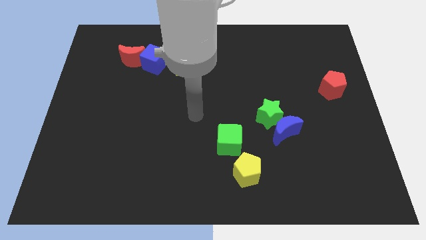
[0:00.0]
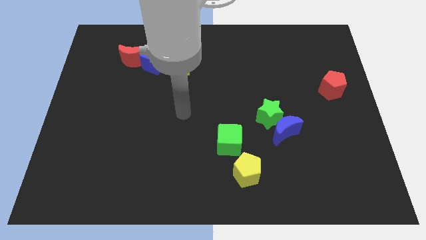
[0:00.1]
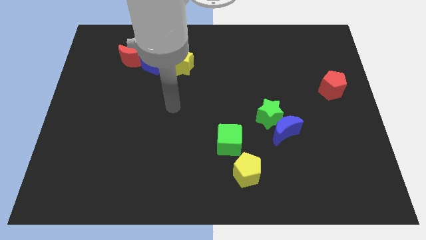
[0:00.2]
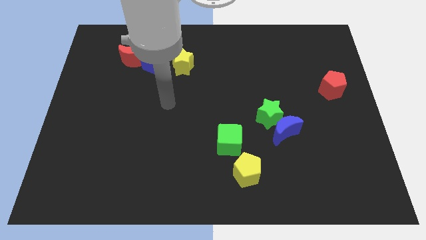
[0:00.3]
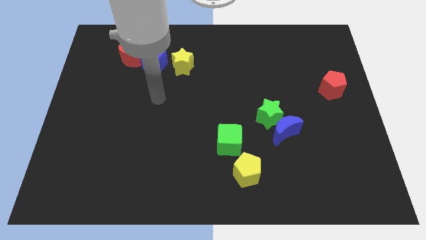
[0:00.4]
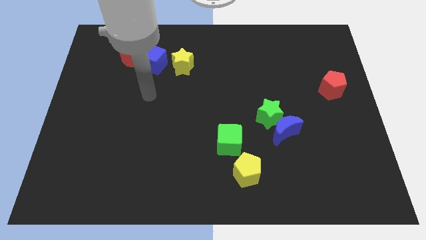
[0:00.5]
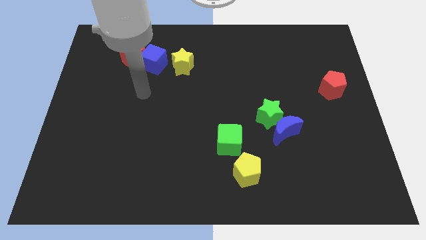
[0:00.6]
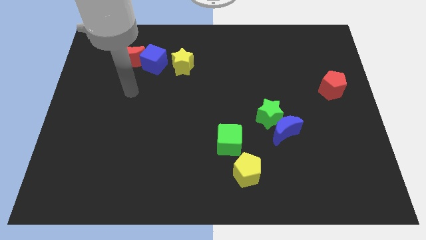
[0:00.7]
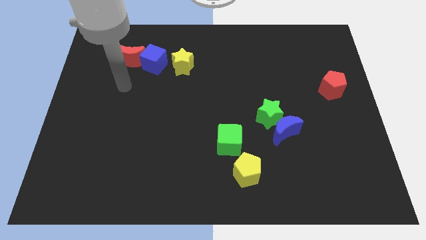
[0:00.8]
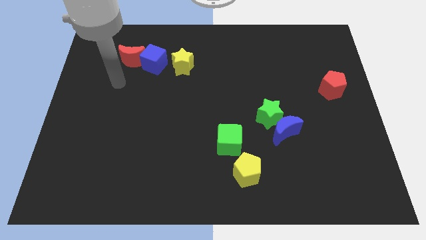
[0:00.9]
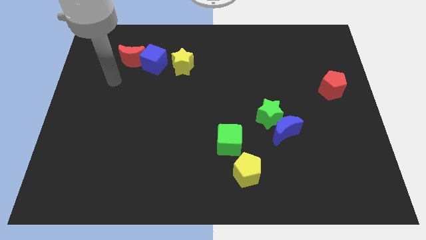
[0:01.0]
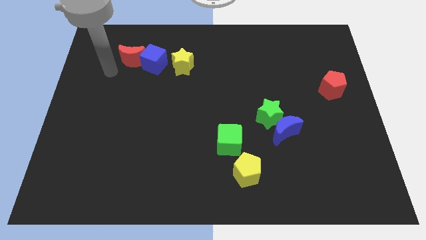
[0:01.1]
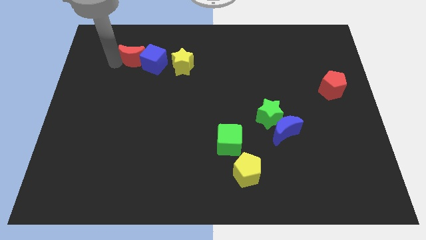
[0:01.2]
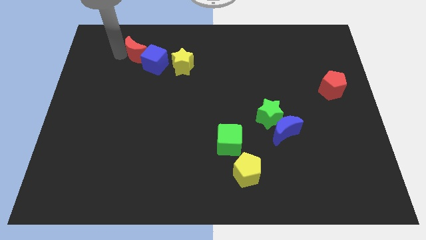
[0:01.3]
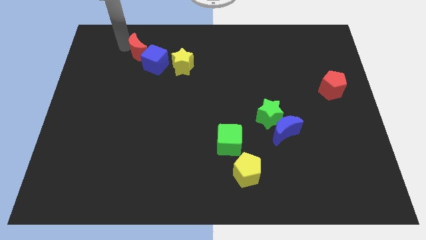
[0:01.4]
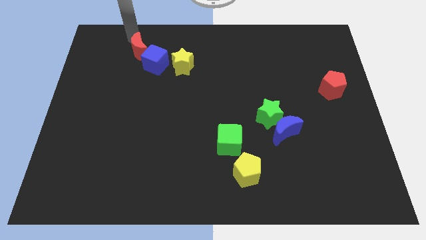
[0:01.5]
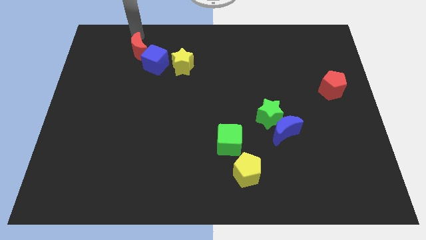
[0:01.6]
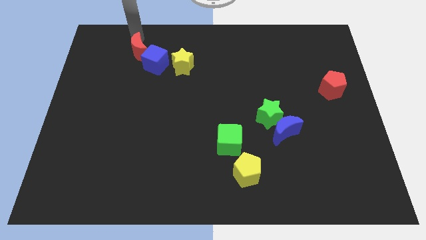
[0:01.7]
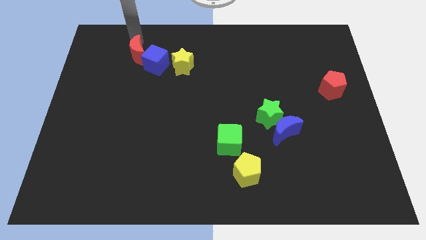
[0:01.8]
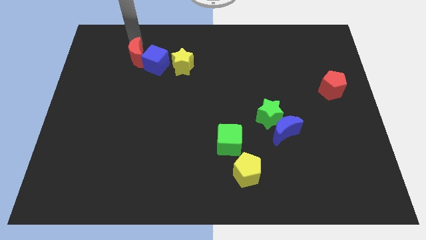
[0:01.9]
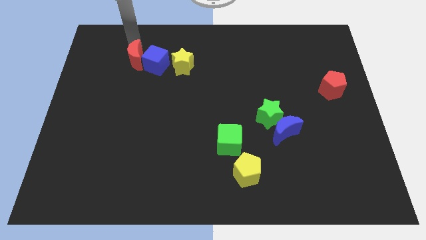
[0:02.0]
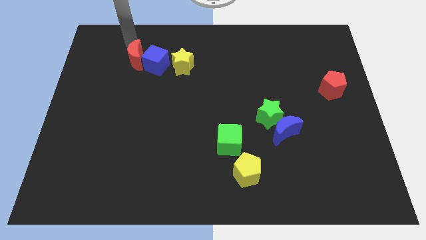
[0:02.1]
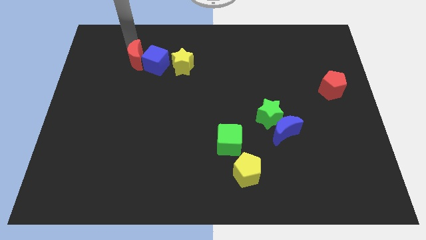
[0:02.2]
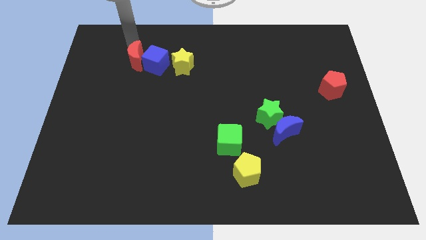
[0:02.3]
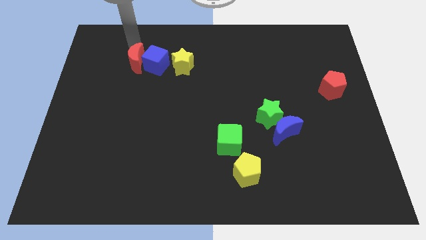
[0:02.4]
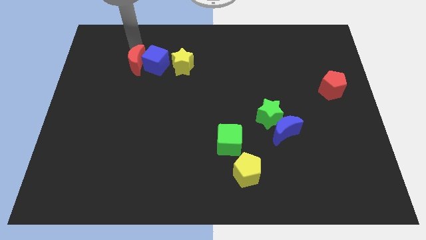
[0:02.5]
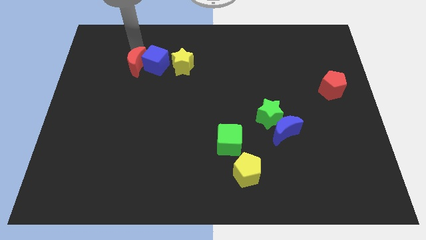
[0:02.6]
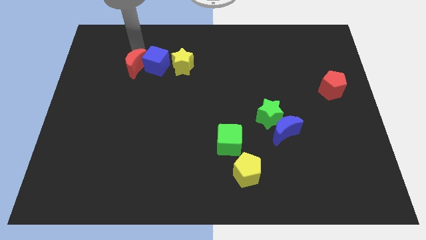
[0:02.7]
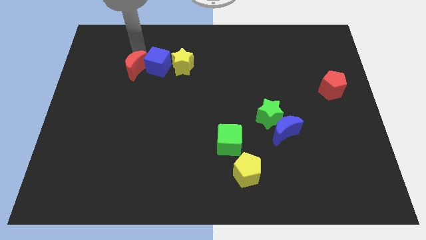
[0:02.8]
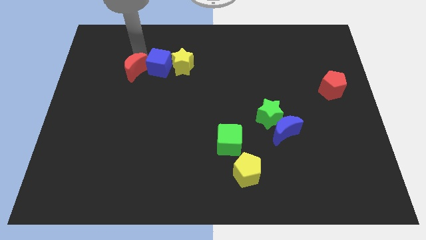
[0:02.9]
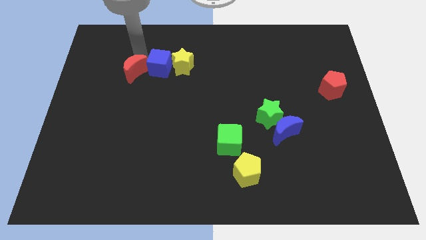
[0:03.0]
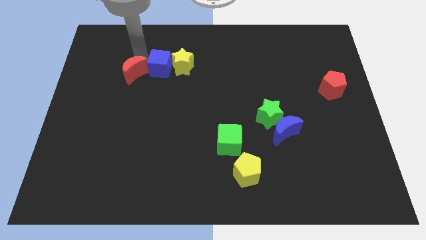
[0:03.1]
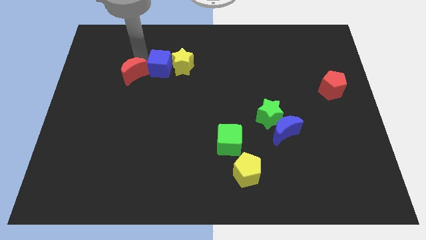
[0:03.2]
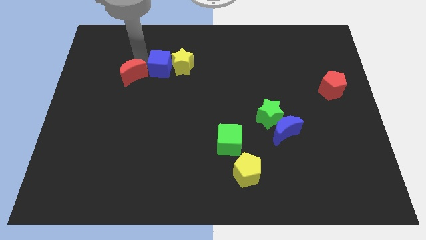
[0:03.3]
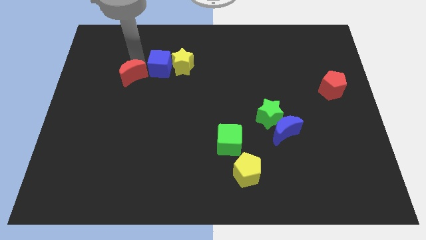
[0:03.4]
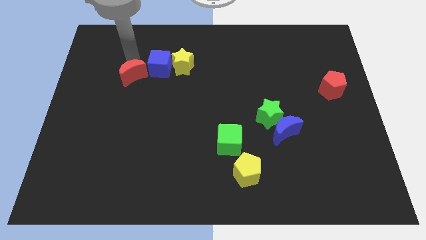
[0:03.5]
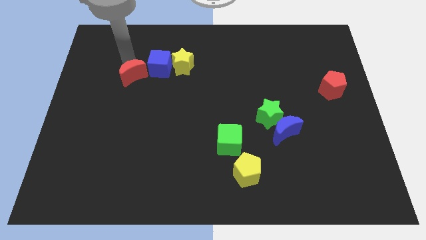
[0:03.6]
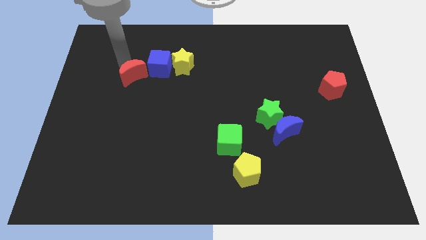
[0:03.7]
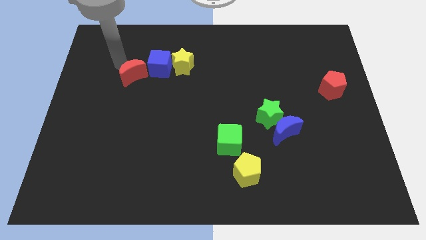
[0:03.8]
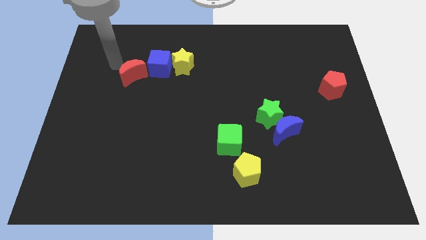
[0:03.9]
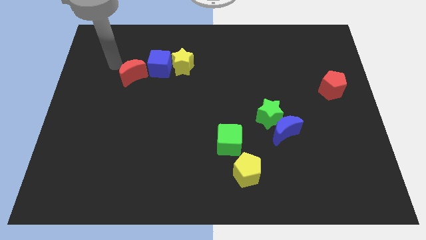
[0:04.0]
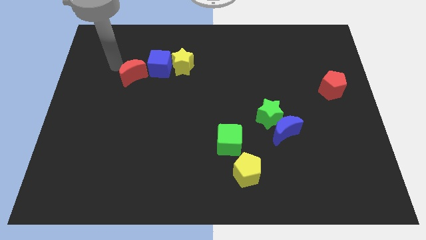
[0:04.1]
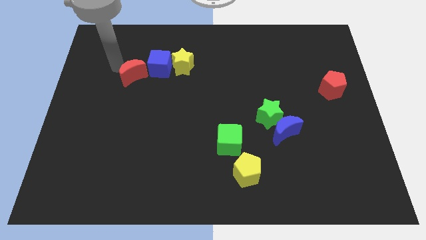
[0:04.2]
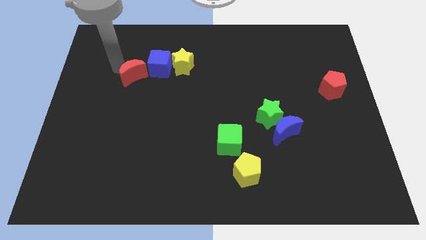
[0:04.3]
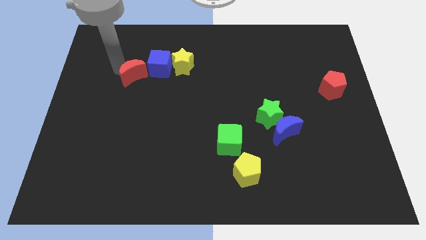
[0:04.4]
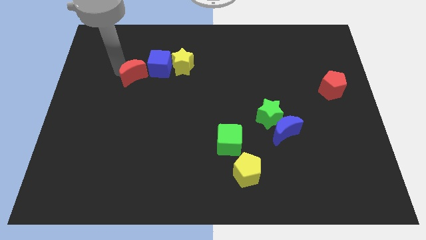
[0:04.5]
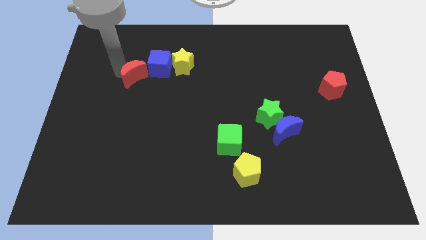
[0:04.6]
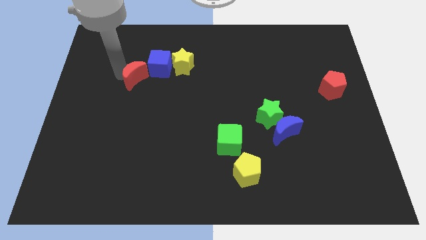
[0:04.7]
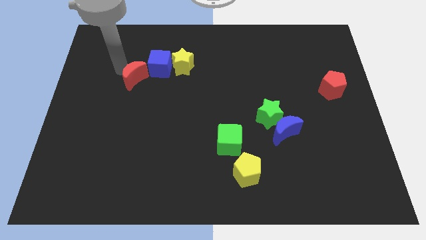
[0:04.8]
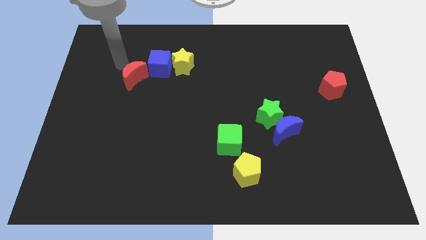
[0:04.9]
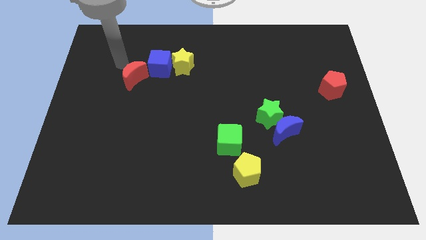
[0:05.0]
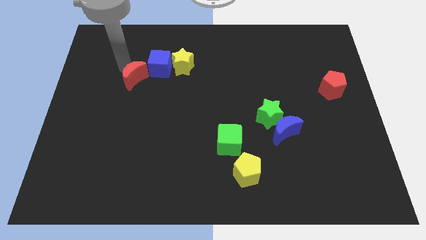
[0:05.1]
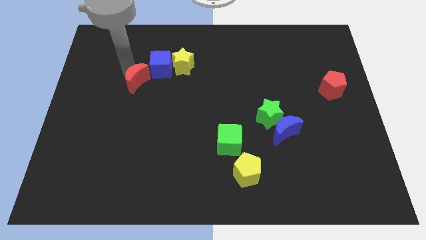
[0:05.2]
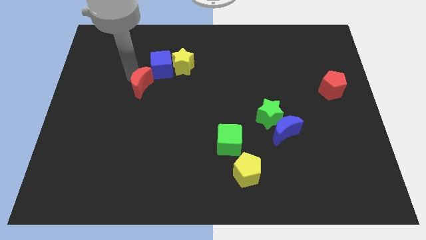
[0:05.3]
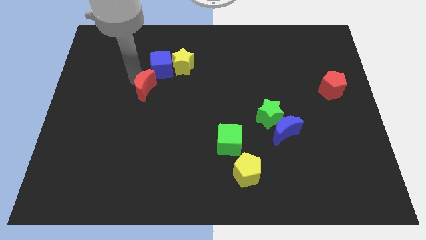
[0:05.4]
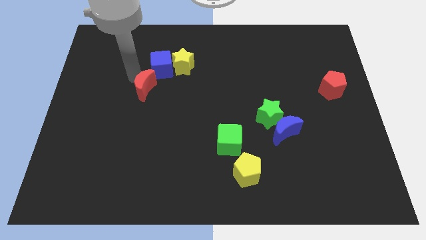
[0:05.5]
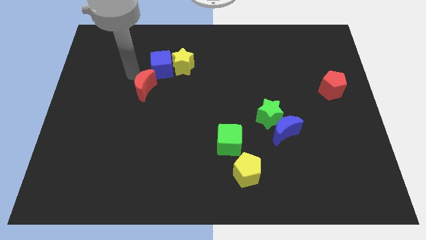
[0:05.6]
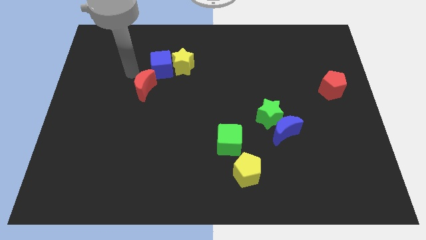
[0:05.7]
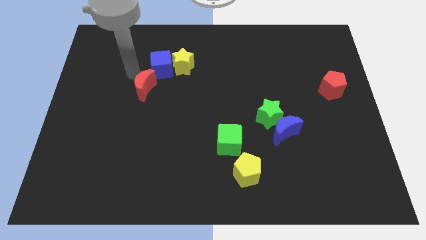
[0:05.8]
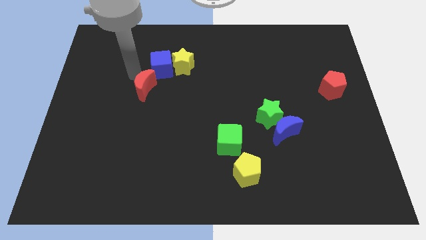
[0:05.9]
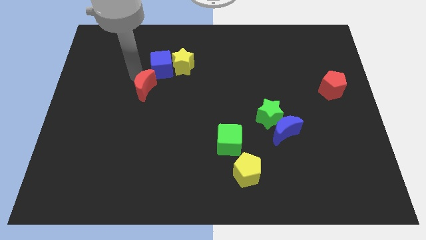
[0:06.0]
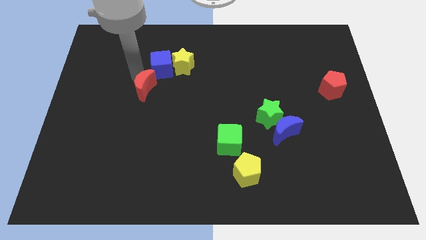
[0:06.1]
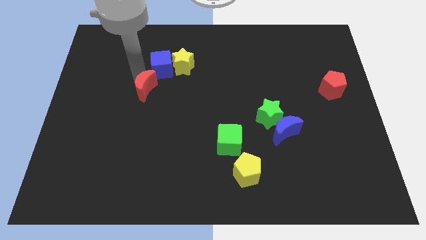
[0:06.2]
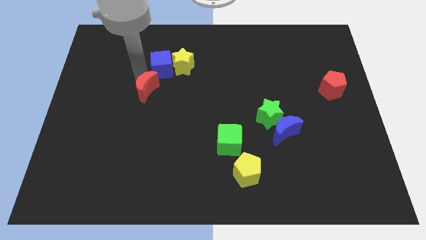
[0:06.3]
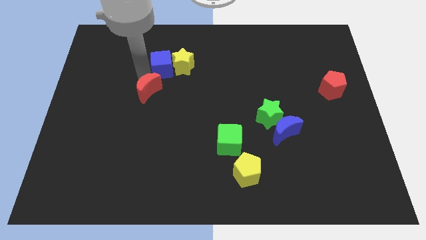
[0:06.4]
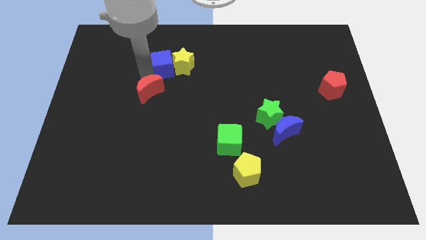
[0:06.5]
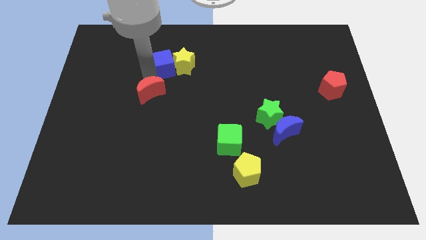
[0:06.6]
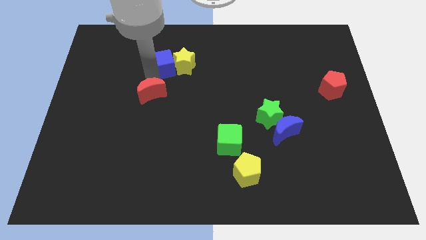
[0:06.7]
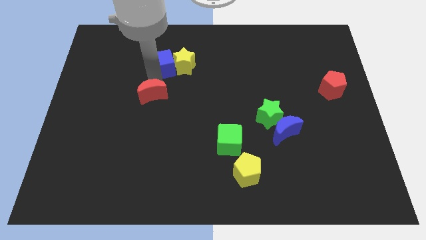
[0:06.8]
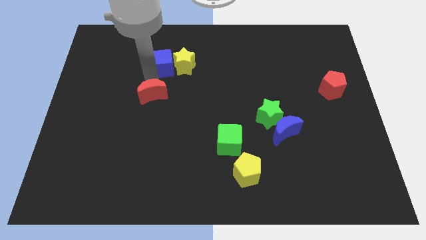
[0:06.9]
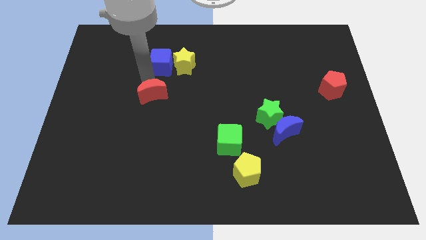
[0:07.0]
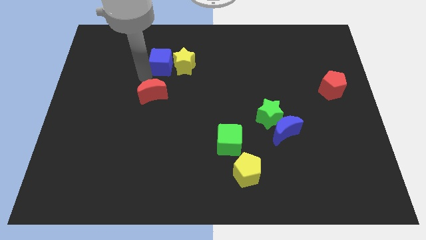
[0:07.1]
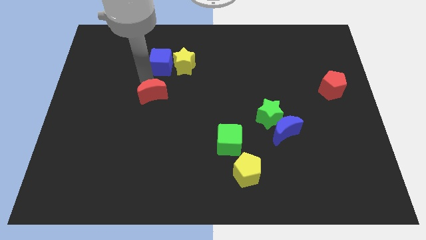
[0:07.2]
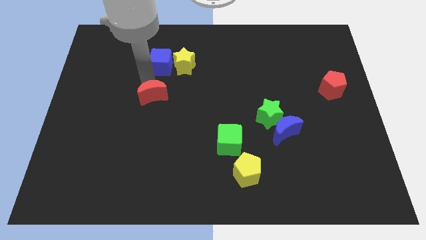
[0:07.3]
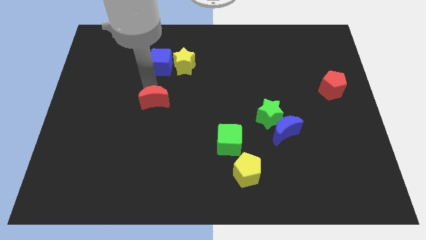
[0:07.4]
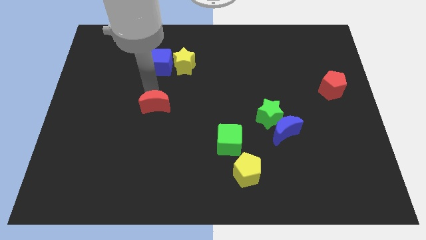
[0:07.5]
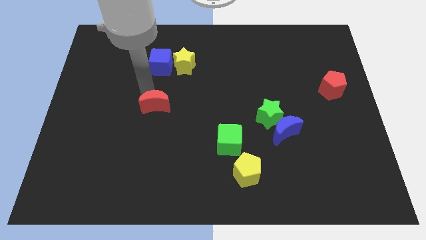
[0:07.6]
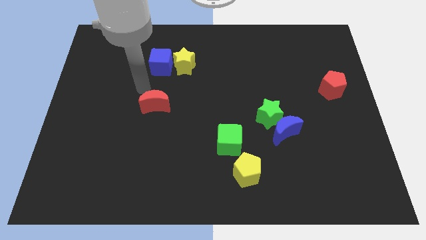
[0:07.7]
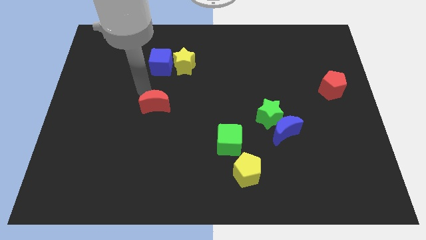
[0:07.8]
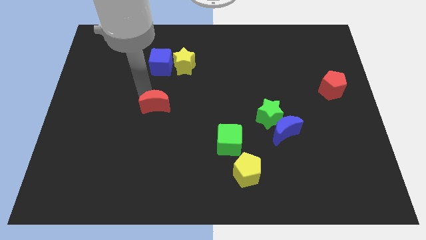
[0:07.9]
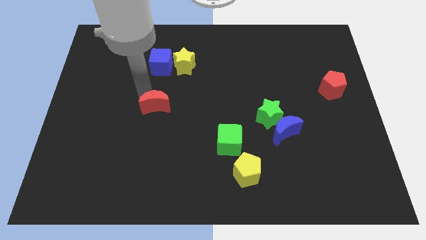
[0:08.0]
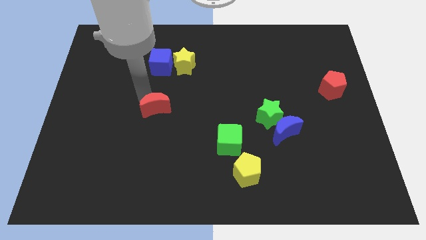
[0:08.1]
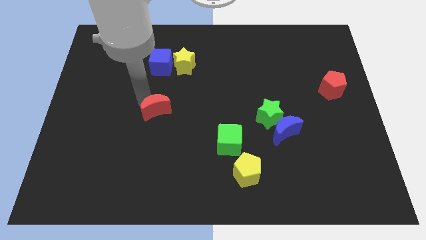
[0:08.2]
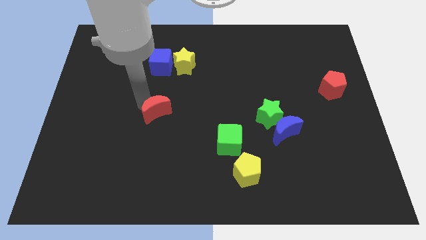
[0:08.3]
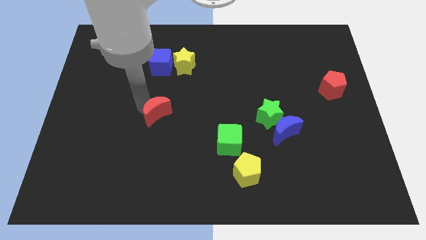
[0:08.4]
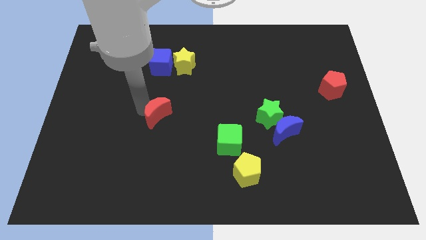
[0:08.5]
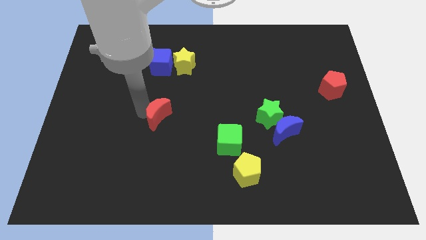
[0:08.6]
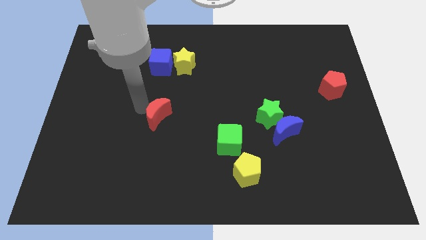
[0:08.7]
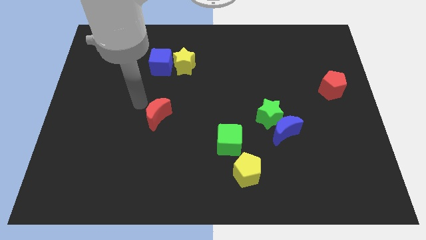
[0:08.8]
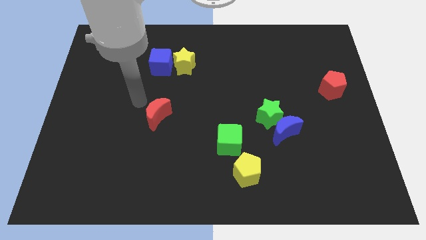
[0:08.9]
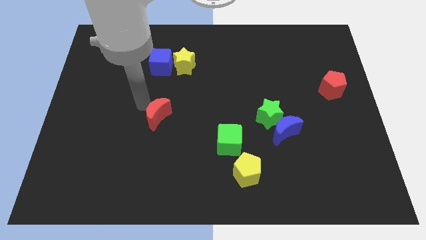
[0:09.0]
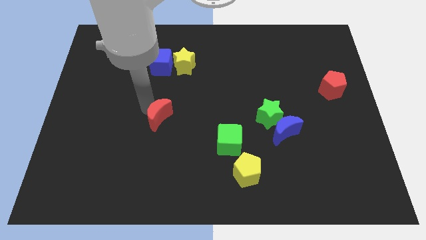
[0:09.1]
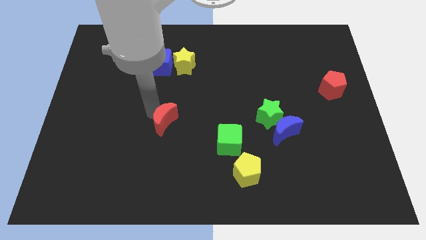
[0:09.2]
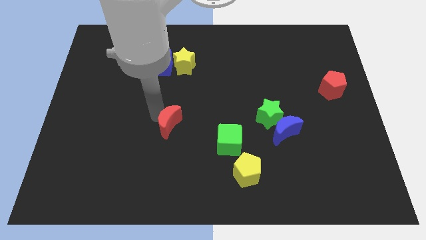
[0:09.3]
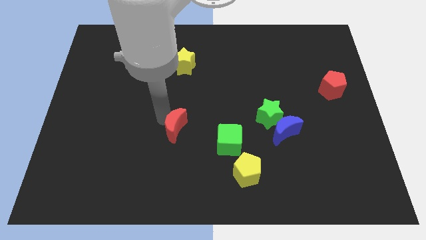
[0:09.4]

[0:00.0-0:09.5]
put the red moon just left of the green cube
